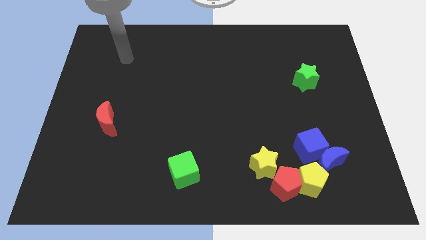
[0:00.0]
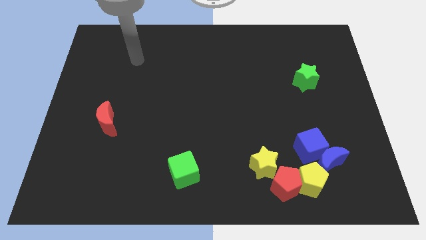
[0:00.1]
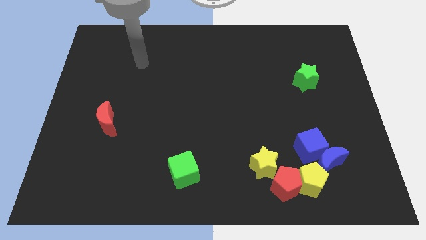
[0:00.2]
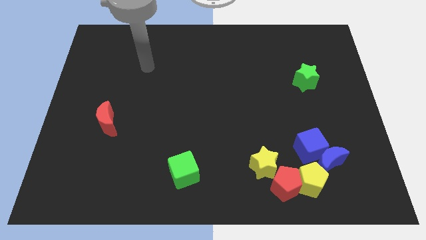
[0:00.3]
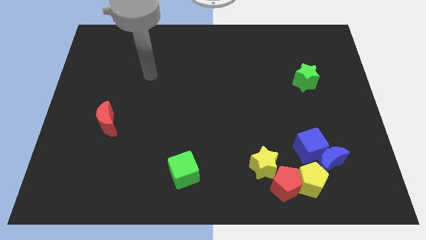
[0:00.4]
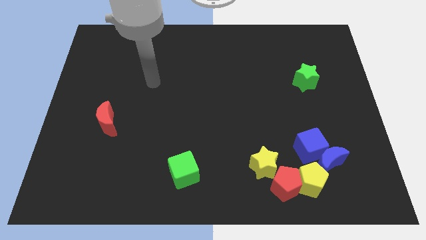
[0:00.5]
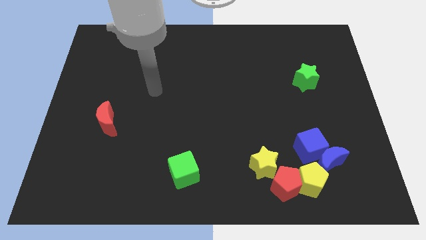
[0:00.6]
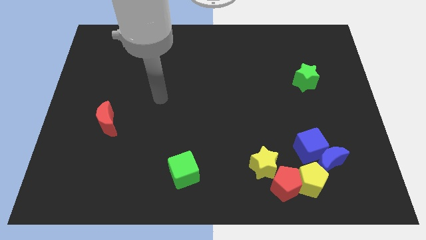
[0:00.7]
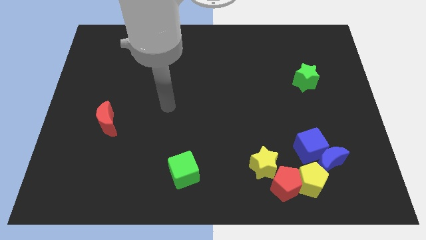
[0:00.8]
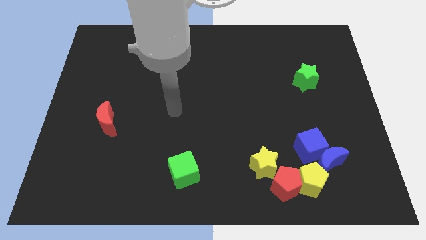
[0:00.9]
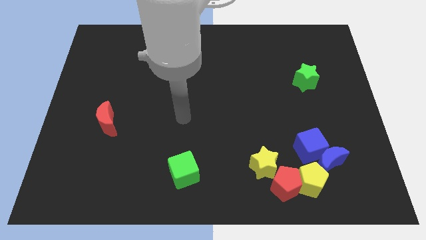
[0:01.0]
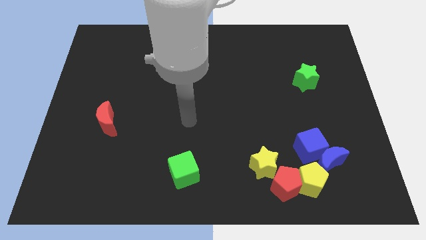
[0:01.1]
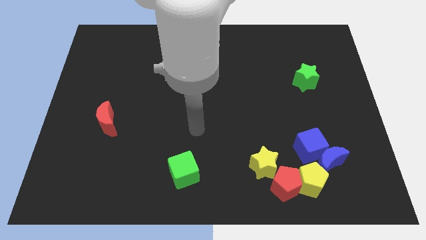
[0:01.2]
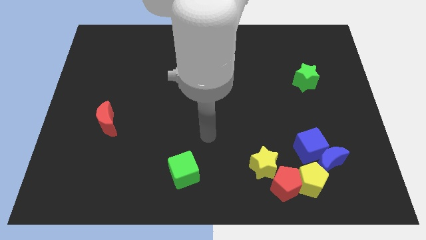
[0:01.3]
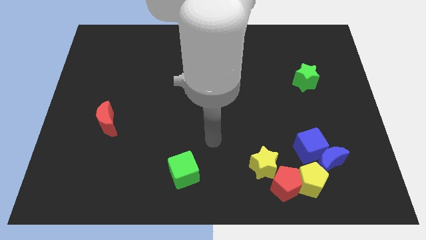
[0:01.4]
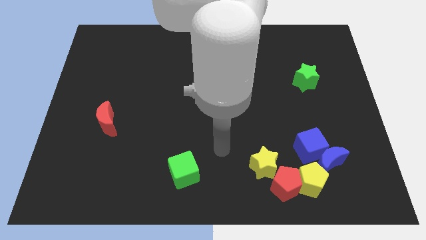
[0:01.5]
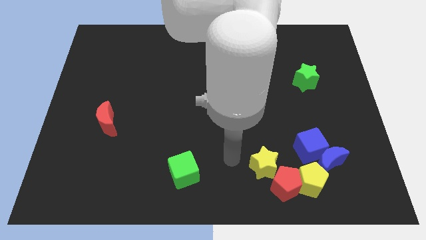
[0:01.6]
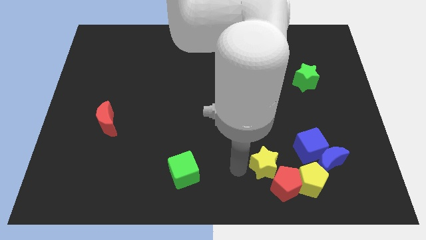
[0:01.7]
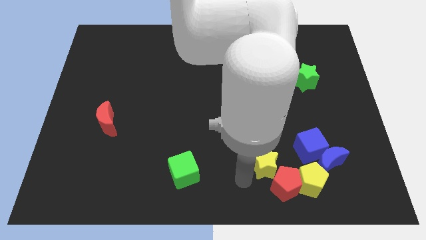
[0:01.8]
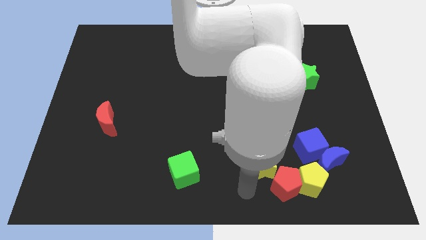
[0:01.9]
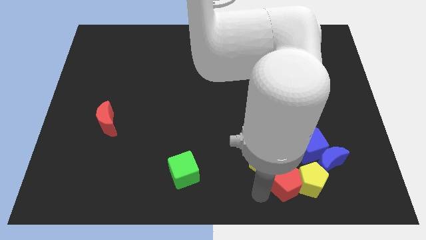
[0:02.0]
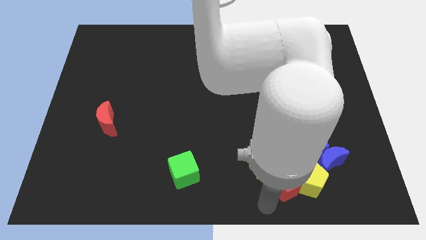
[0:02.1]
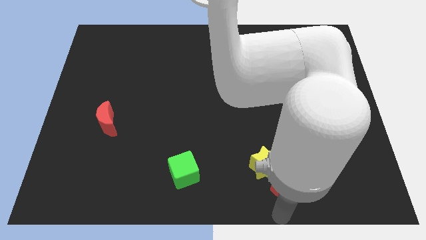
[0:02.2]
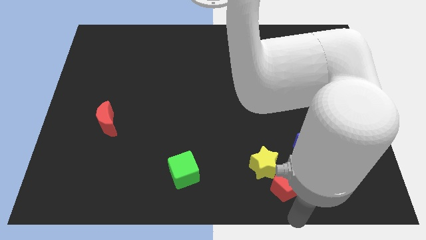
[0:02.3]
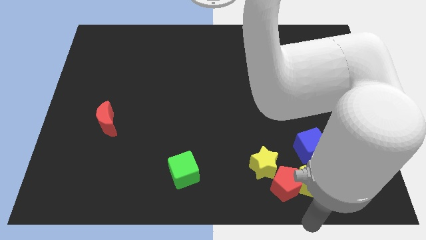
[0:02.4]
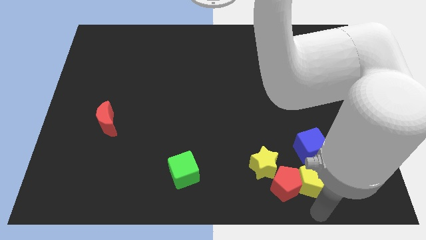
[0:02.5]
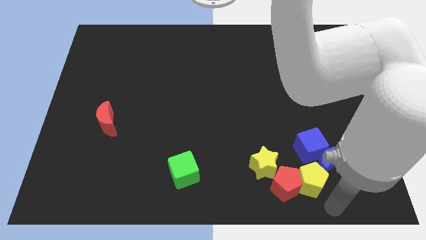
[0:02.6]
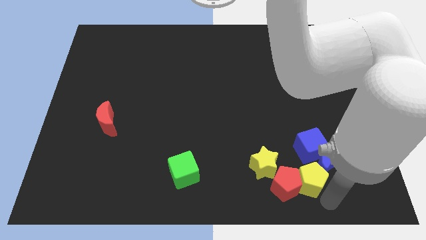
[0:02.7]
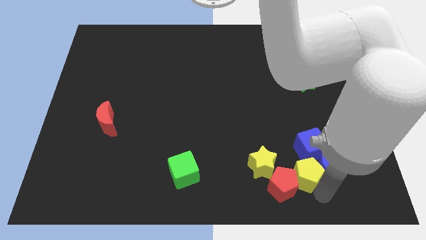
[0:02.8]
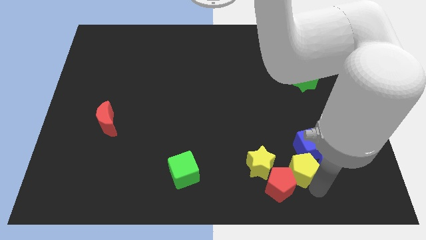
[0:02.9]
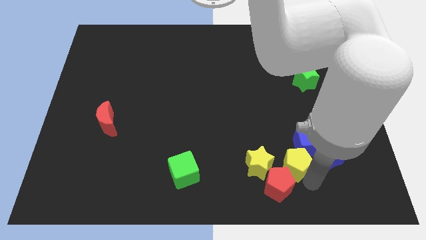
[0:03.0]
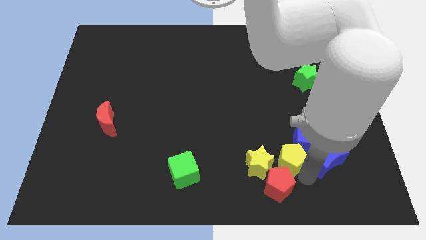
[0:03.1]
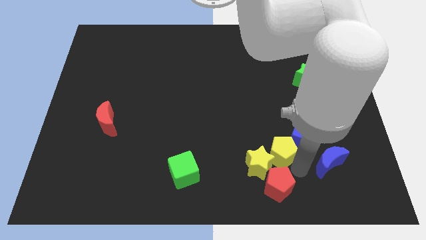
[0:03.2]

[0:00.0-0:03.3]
slide the yellow pentagon up and left somewhat

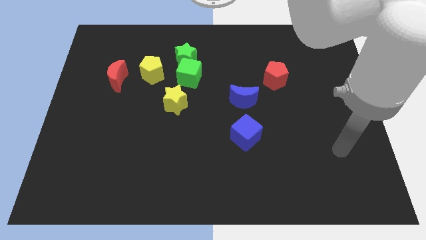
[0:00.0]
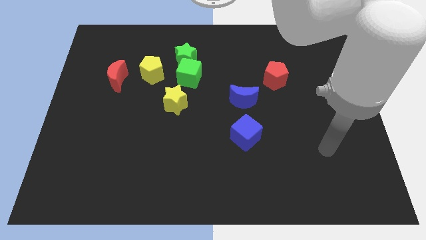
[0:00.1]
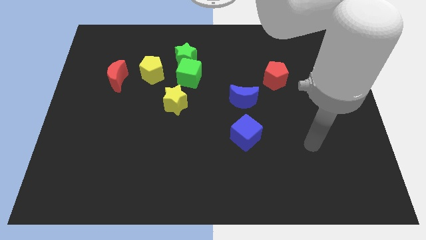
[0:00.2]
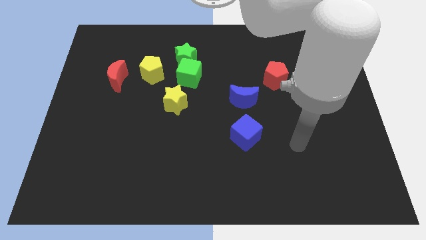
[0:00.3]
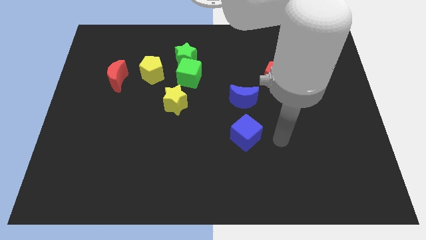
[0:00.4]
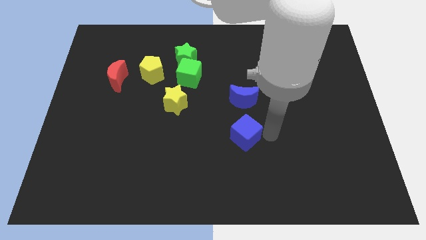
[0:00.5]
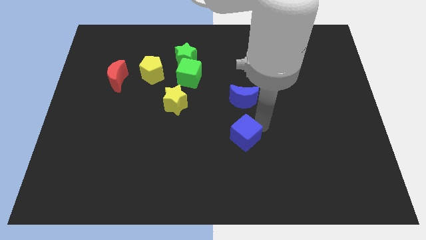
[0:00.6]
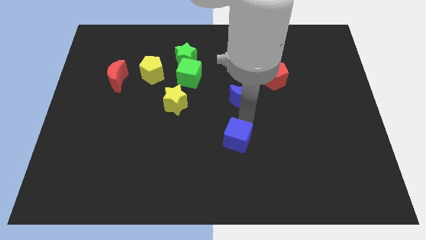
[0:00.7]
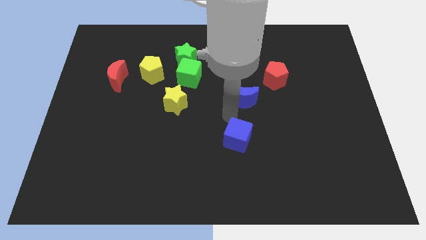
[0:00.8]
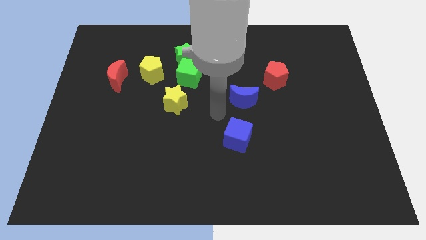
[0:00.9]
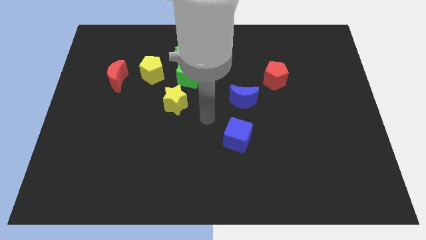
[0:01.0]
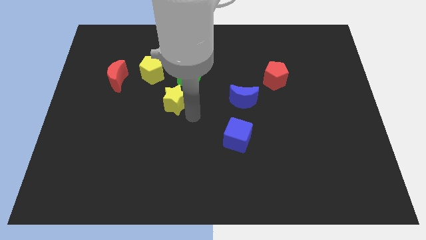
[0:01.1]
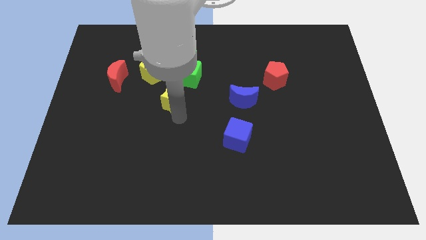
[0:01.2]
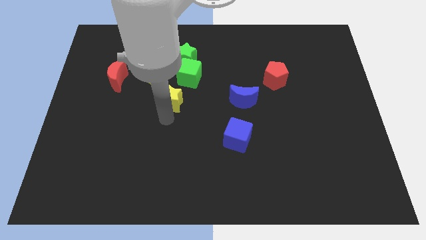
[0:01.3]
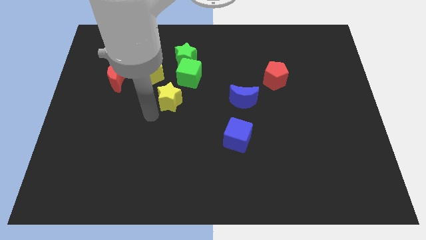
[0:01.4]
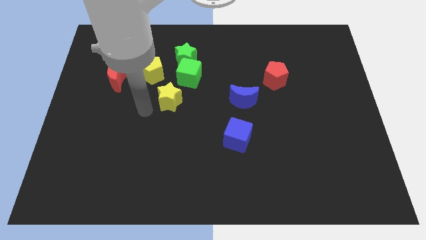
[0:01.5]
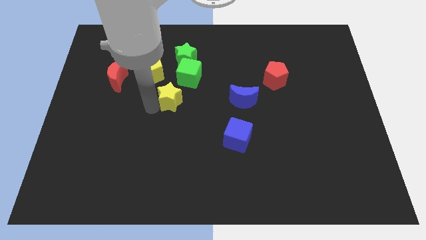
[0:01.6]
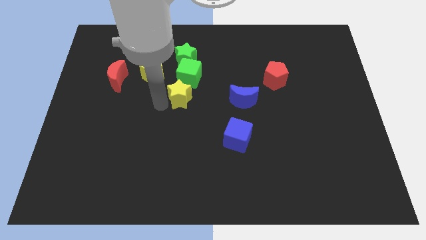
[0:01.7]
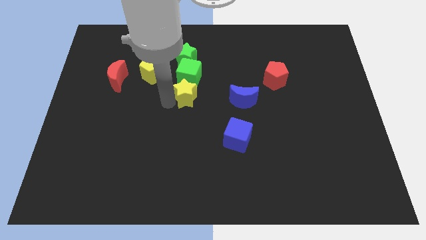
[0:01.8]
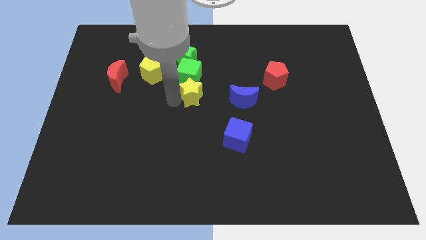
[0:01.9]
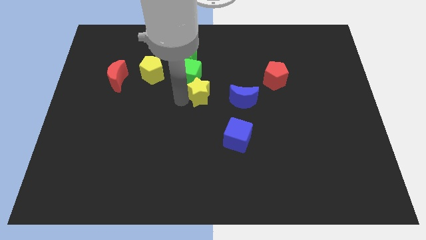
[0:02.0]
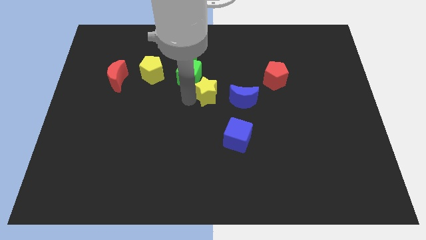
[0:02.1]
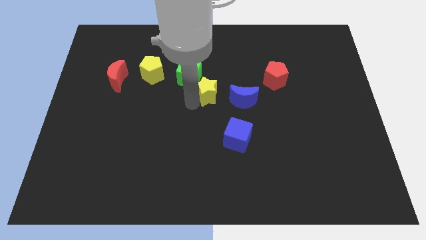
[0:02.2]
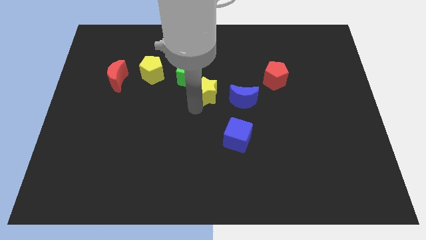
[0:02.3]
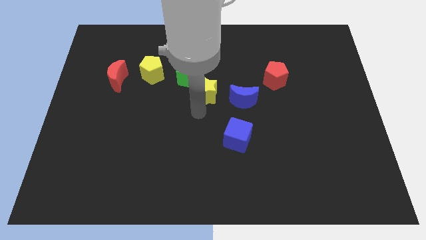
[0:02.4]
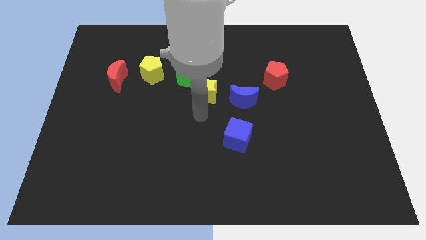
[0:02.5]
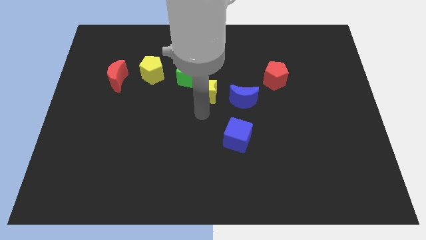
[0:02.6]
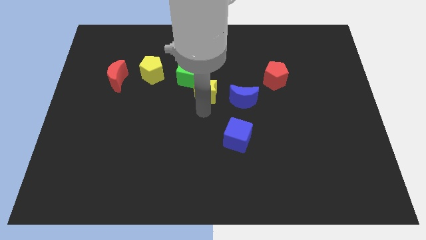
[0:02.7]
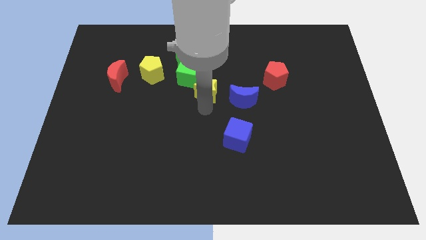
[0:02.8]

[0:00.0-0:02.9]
push the yellow star a little bit diagonally up and right

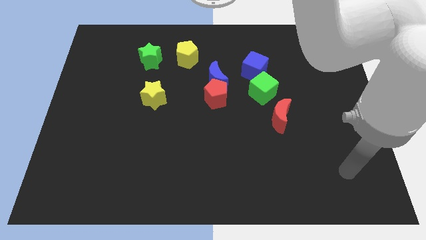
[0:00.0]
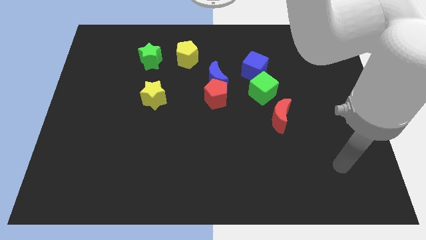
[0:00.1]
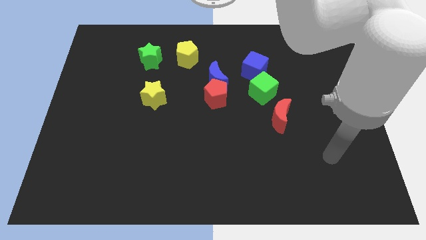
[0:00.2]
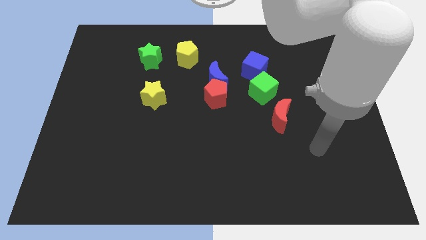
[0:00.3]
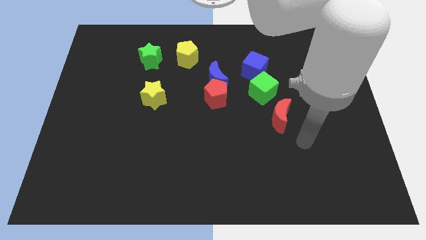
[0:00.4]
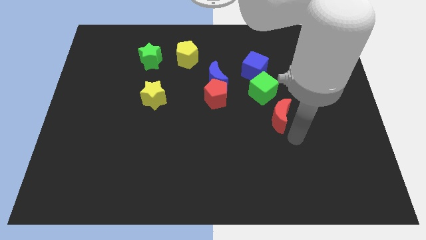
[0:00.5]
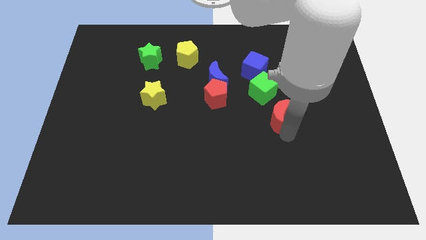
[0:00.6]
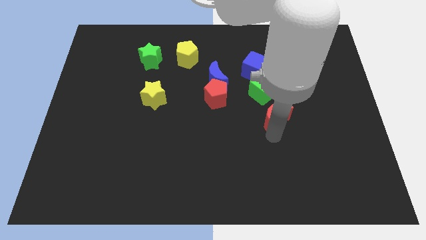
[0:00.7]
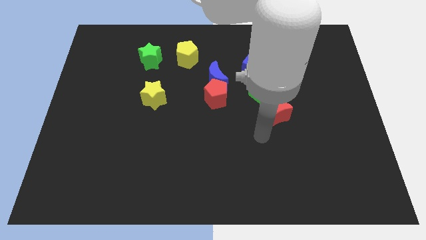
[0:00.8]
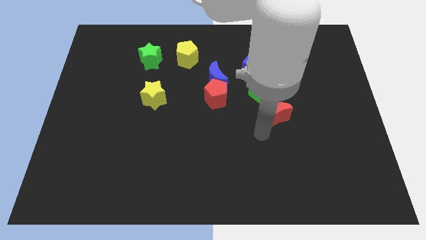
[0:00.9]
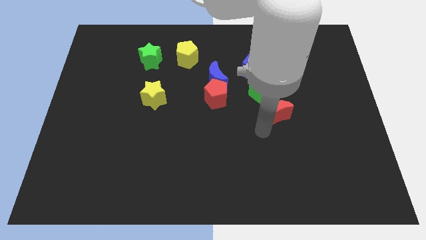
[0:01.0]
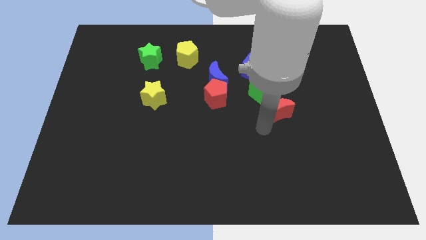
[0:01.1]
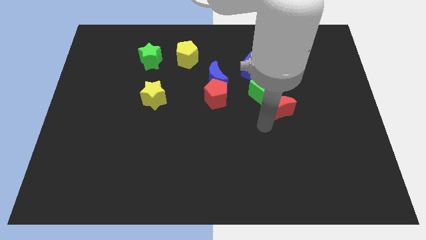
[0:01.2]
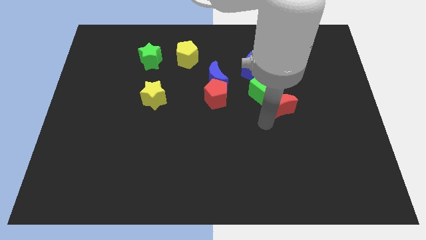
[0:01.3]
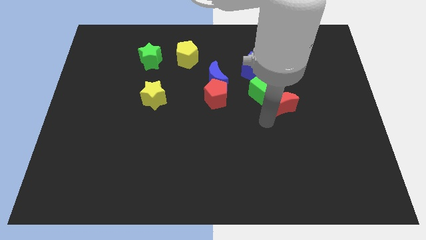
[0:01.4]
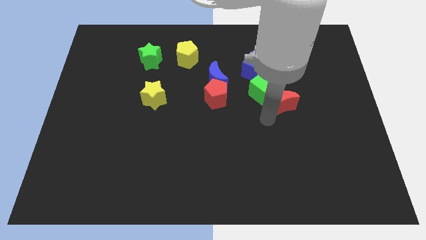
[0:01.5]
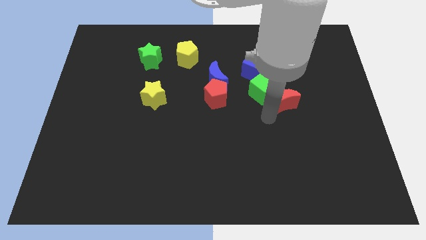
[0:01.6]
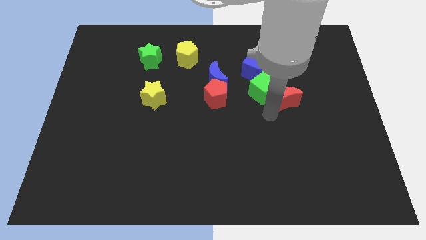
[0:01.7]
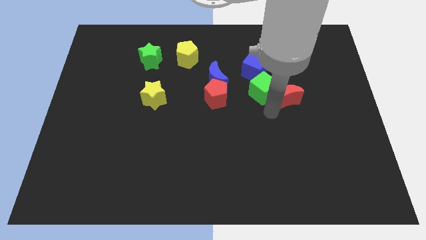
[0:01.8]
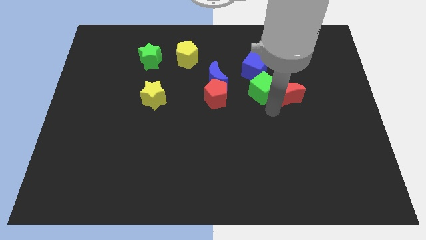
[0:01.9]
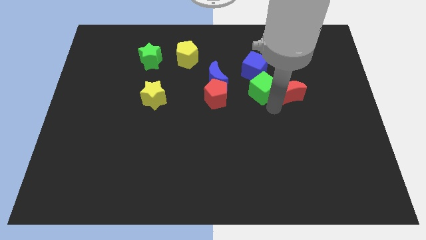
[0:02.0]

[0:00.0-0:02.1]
slightly slide the red moon up and to the right
